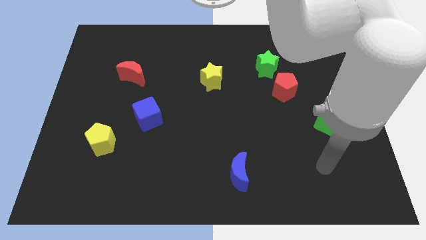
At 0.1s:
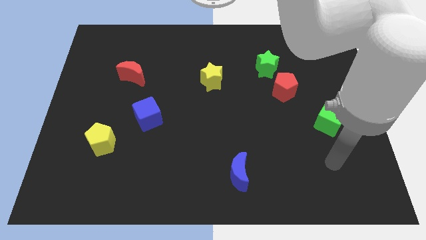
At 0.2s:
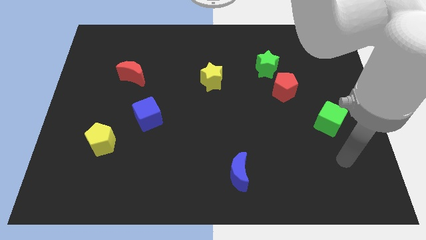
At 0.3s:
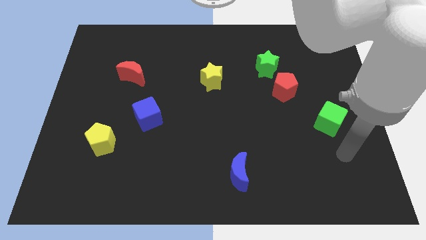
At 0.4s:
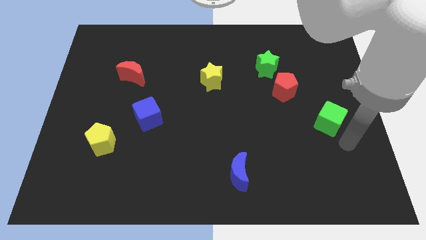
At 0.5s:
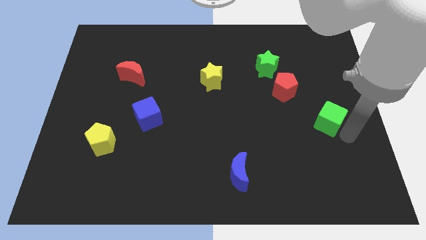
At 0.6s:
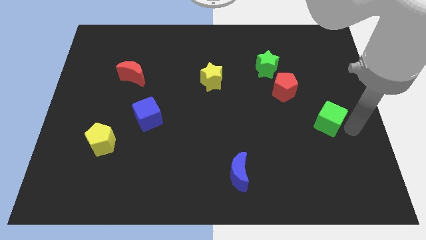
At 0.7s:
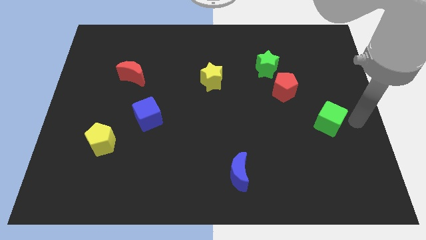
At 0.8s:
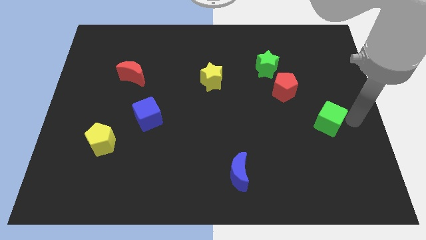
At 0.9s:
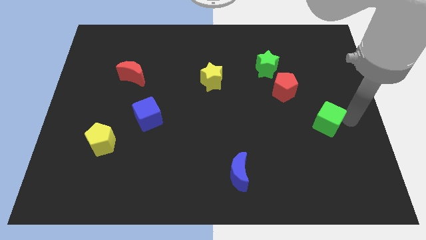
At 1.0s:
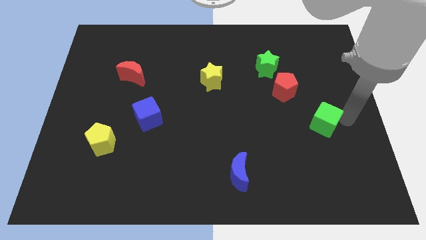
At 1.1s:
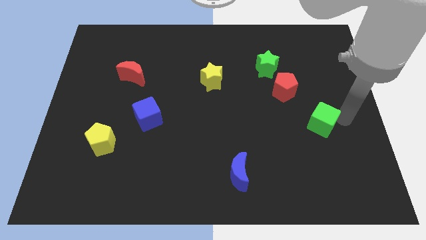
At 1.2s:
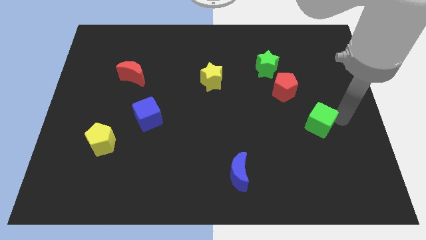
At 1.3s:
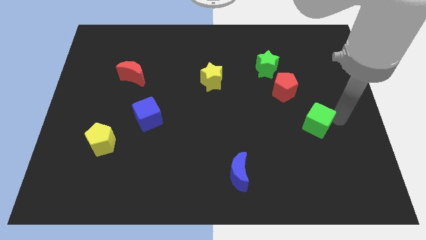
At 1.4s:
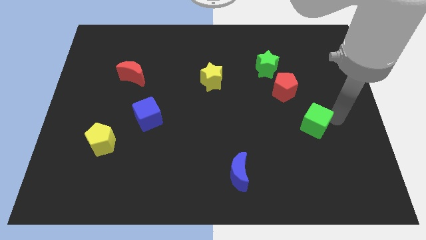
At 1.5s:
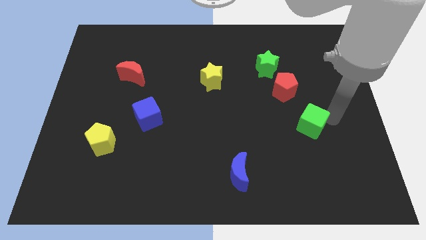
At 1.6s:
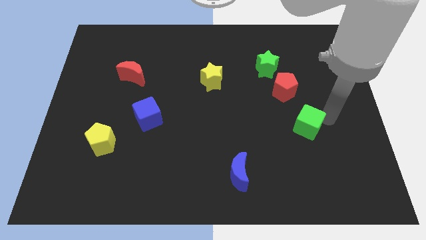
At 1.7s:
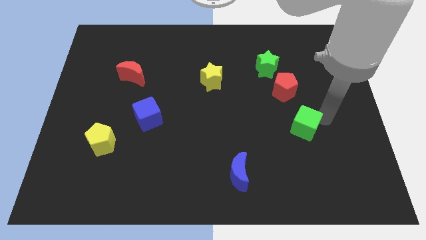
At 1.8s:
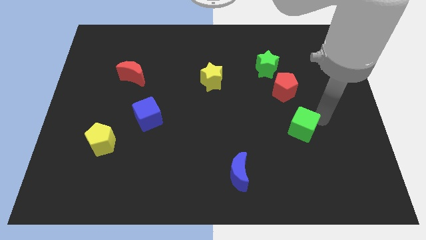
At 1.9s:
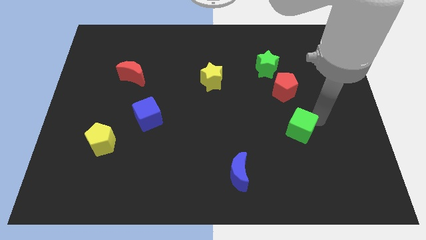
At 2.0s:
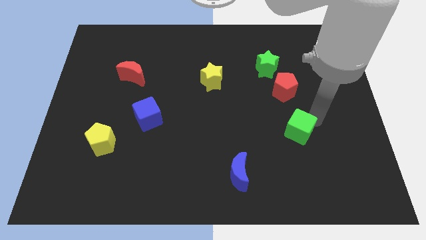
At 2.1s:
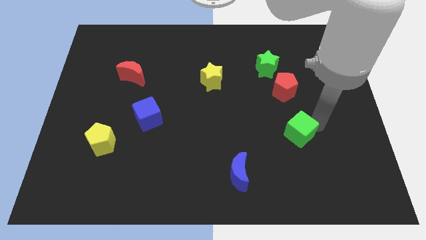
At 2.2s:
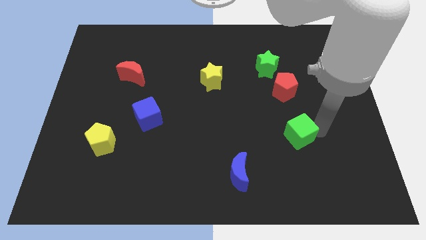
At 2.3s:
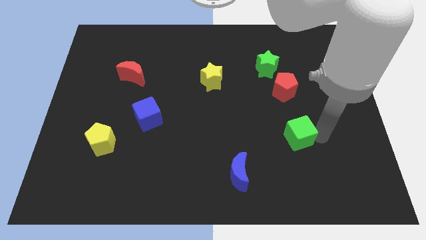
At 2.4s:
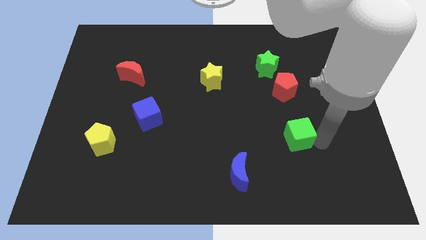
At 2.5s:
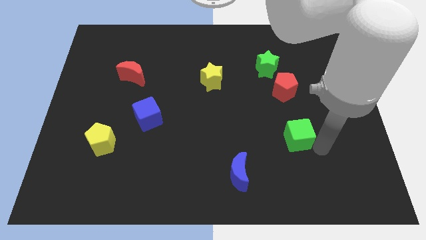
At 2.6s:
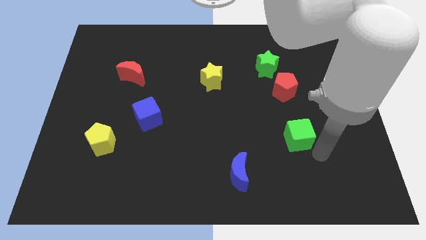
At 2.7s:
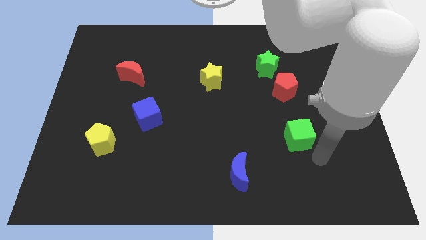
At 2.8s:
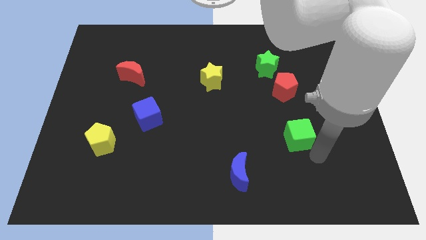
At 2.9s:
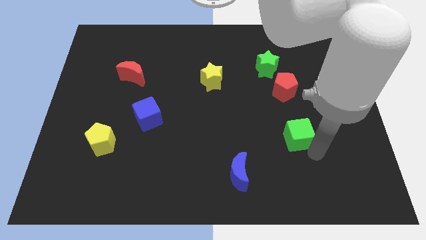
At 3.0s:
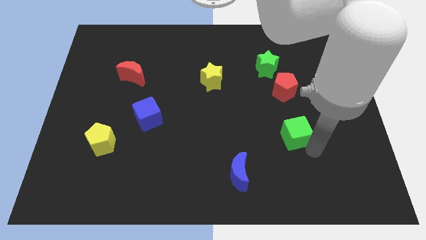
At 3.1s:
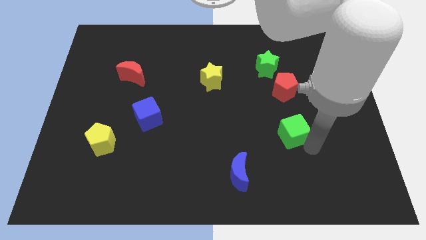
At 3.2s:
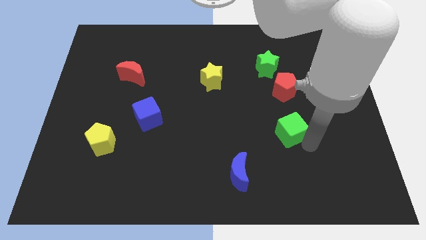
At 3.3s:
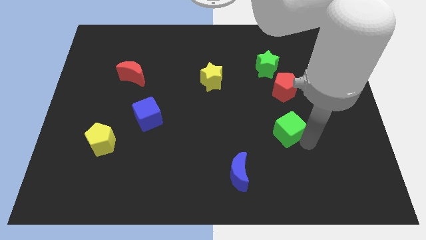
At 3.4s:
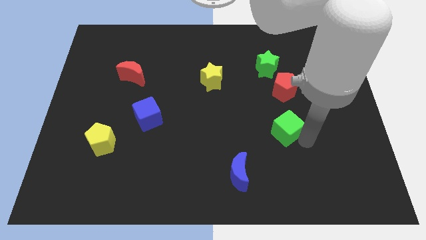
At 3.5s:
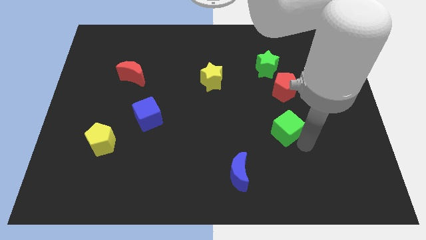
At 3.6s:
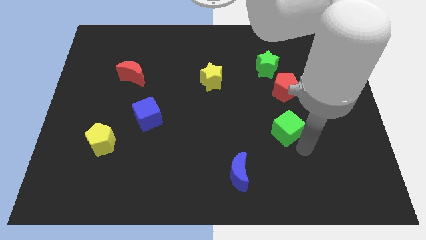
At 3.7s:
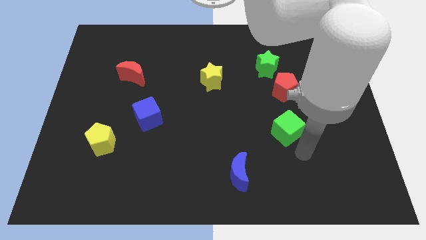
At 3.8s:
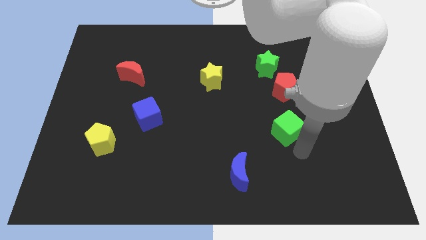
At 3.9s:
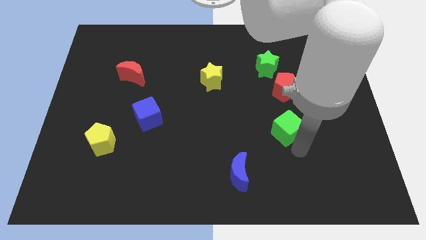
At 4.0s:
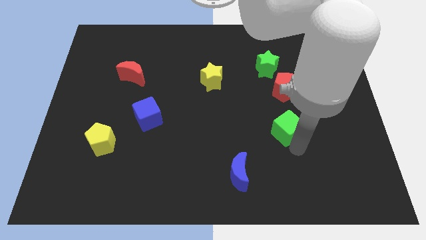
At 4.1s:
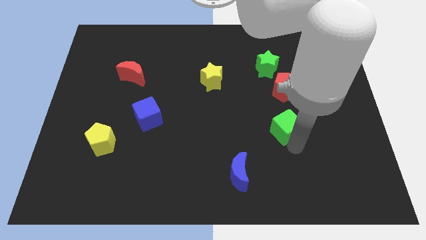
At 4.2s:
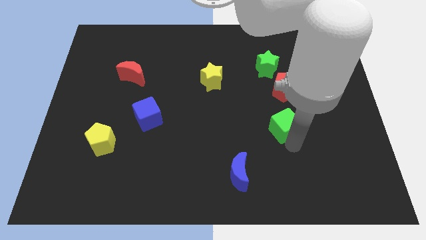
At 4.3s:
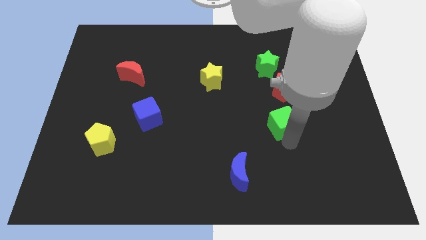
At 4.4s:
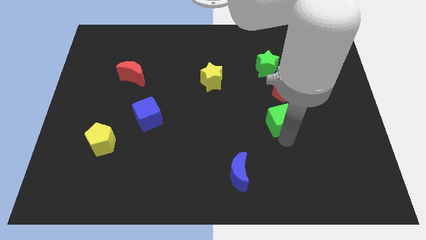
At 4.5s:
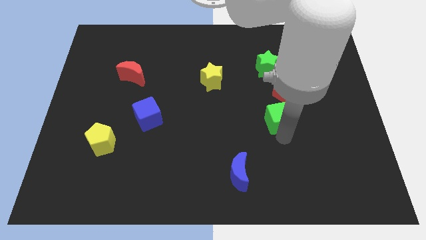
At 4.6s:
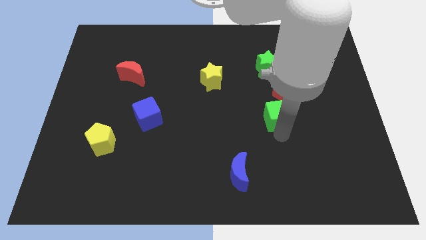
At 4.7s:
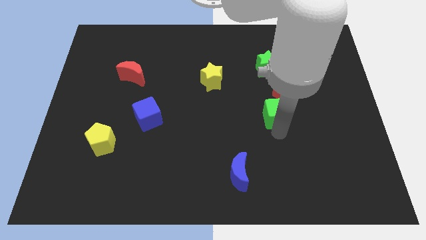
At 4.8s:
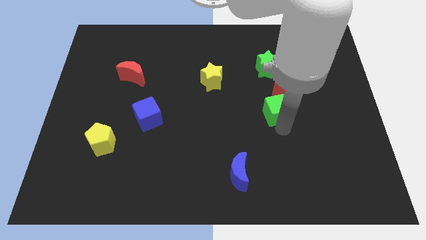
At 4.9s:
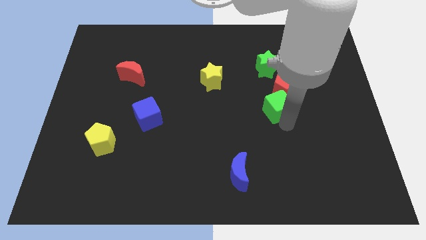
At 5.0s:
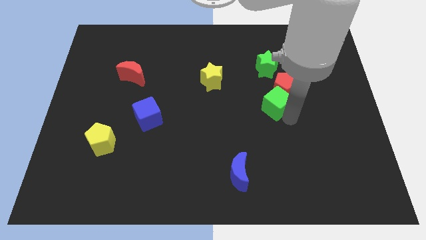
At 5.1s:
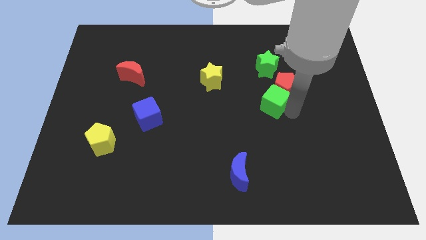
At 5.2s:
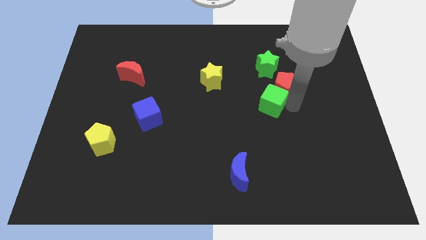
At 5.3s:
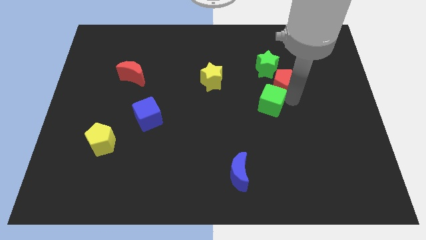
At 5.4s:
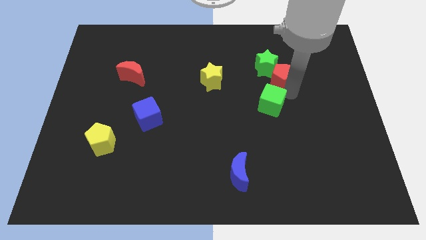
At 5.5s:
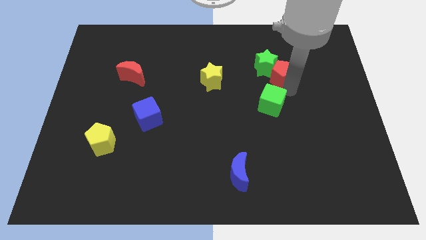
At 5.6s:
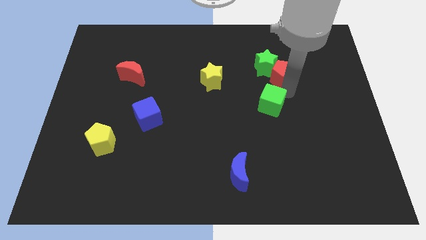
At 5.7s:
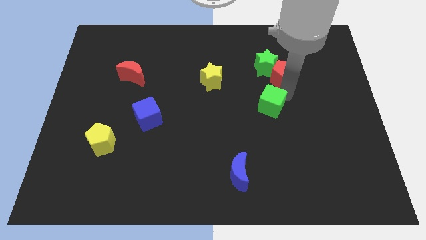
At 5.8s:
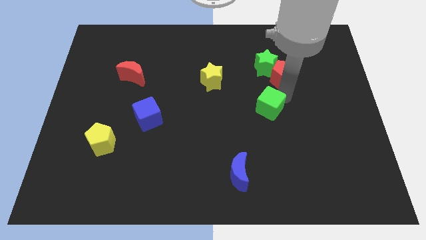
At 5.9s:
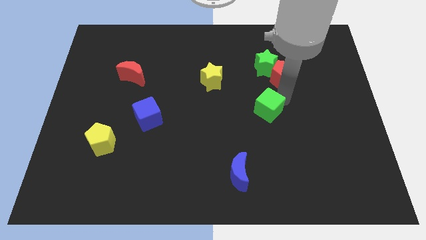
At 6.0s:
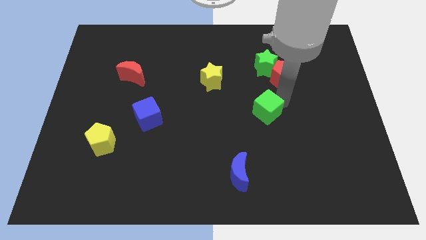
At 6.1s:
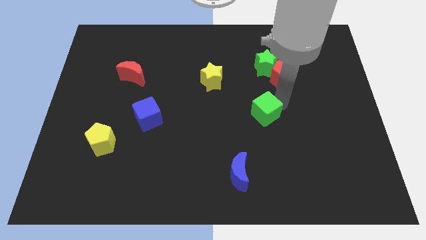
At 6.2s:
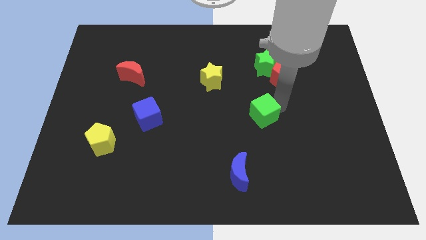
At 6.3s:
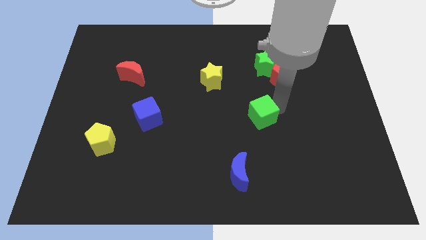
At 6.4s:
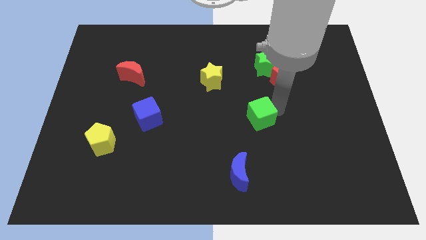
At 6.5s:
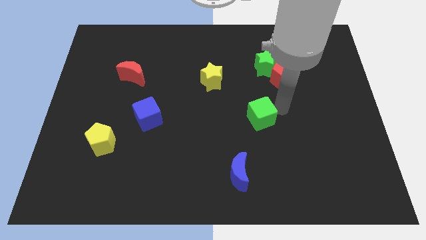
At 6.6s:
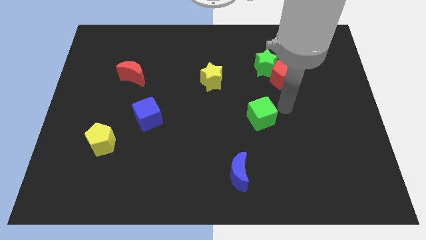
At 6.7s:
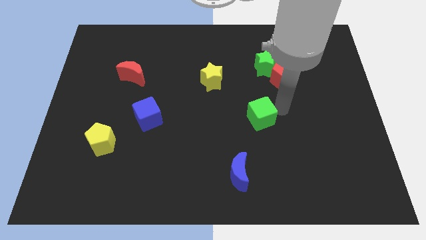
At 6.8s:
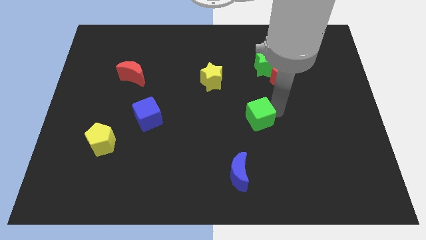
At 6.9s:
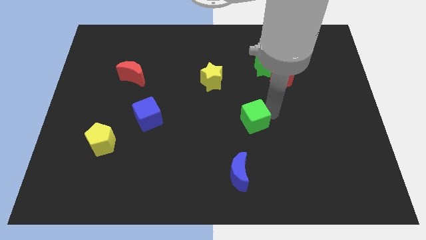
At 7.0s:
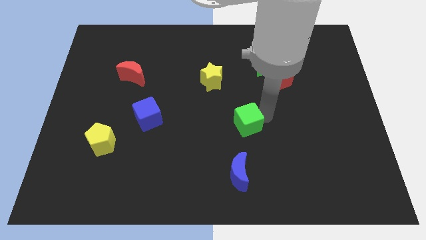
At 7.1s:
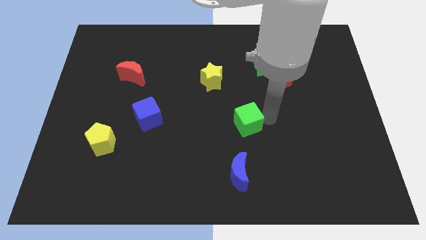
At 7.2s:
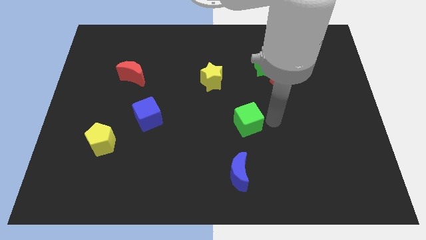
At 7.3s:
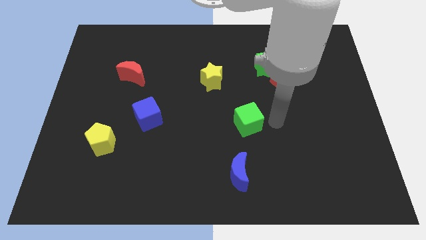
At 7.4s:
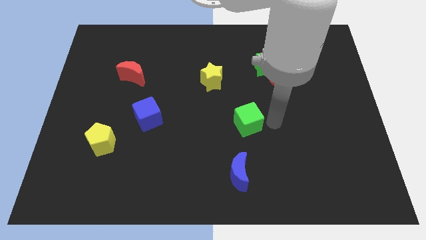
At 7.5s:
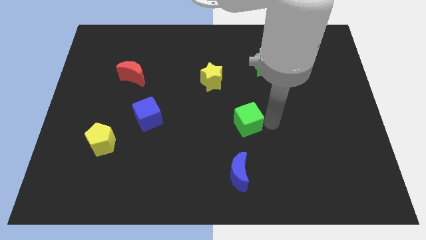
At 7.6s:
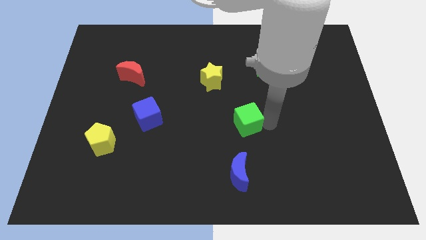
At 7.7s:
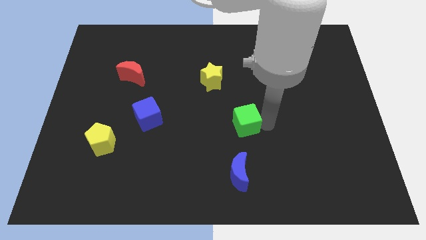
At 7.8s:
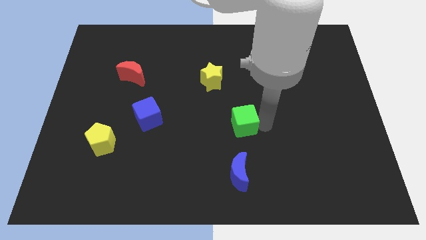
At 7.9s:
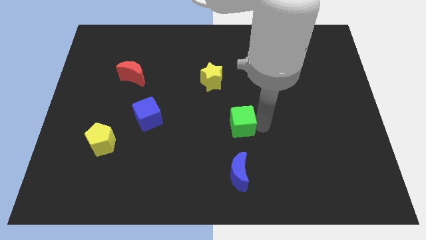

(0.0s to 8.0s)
slide the green cube left
